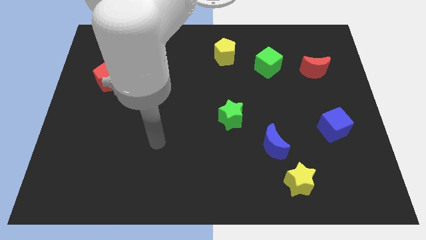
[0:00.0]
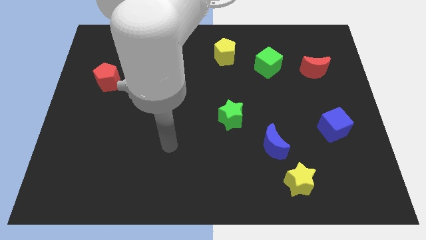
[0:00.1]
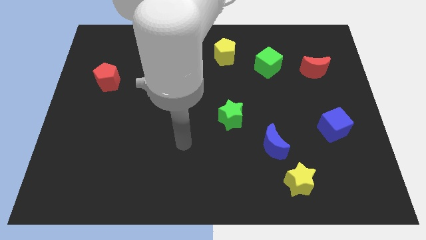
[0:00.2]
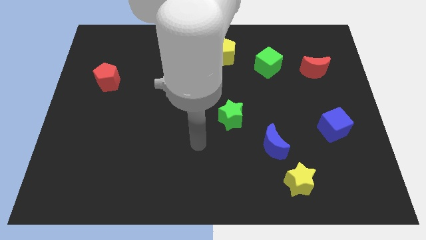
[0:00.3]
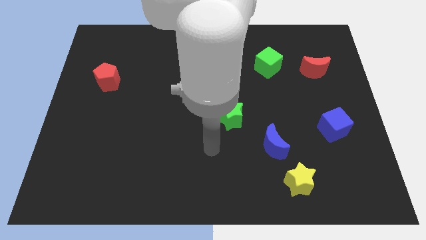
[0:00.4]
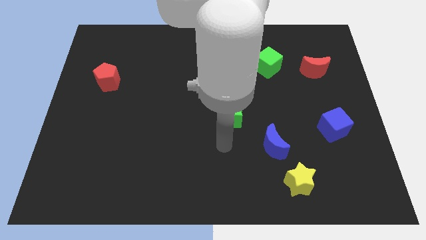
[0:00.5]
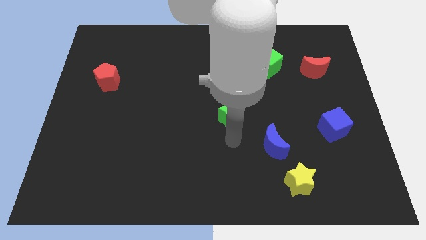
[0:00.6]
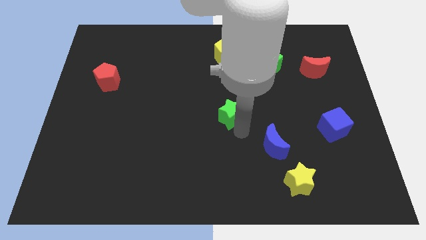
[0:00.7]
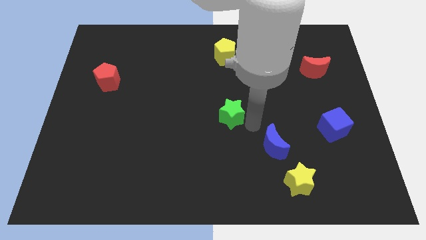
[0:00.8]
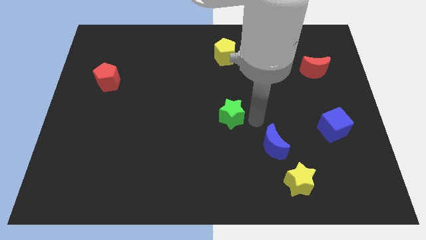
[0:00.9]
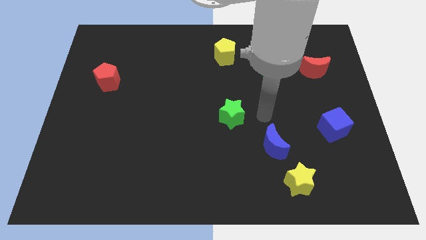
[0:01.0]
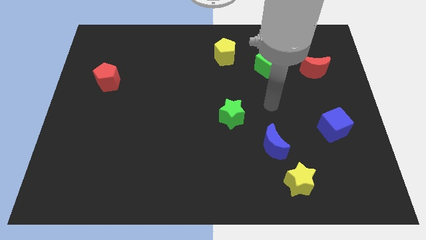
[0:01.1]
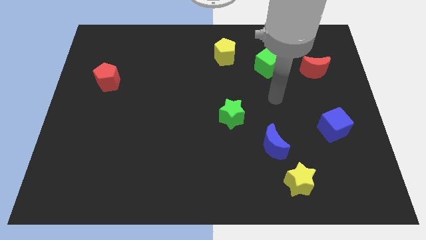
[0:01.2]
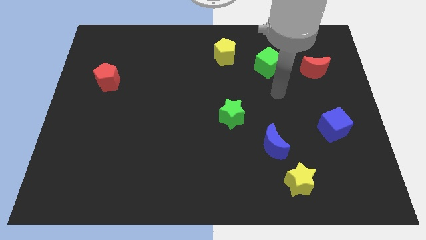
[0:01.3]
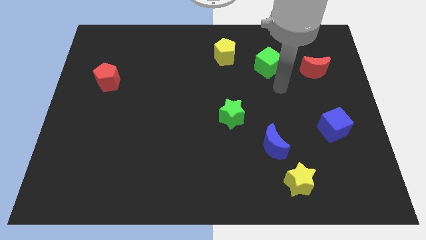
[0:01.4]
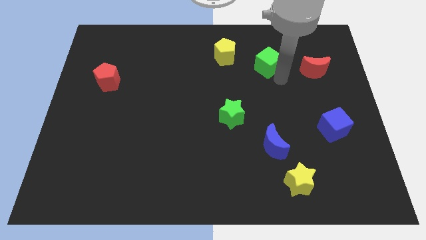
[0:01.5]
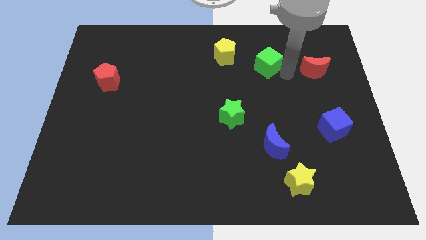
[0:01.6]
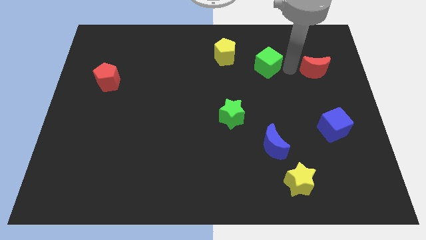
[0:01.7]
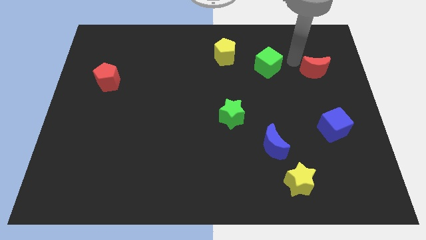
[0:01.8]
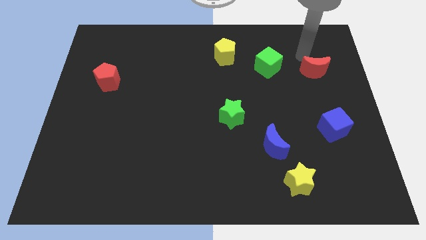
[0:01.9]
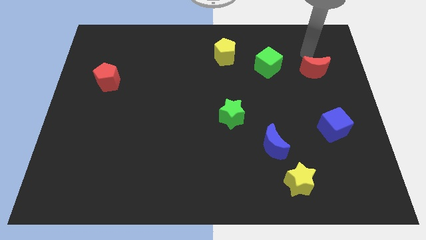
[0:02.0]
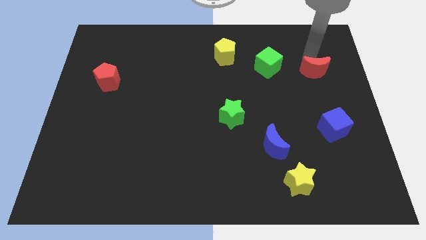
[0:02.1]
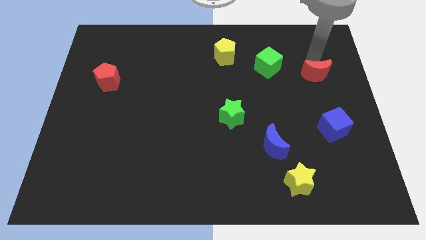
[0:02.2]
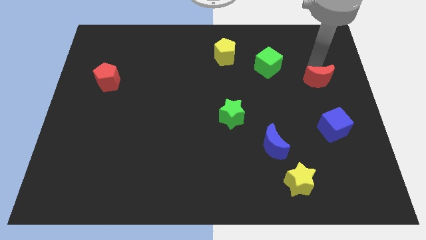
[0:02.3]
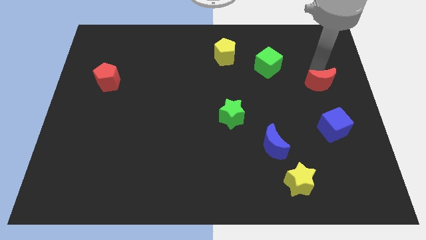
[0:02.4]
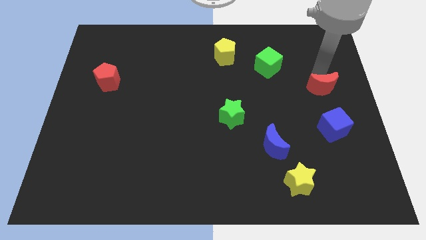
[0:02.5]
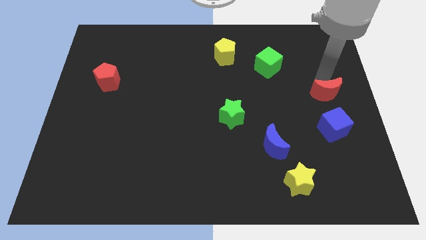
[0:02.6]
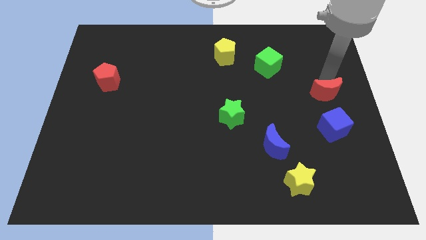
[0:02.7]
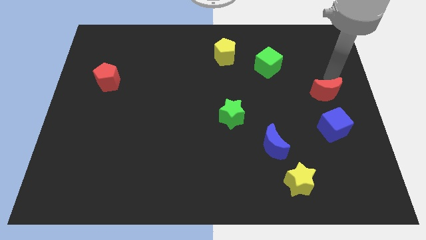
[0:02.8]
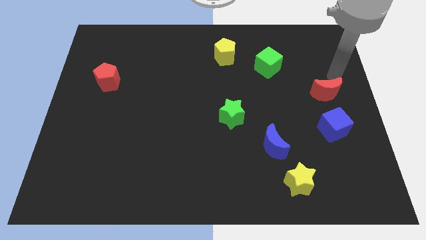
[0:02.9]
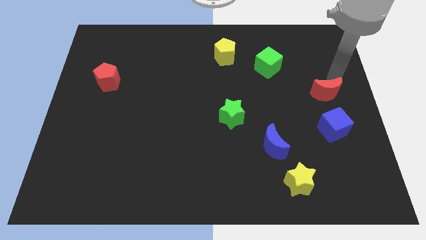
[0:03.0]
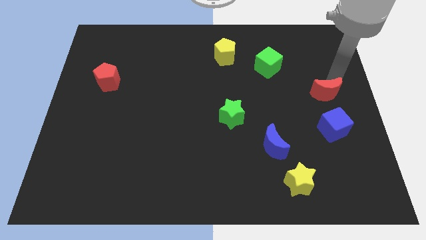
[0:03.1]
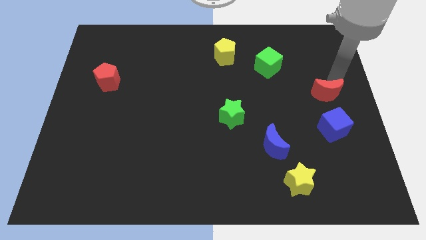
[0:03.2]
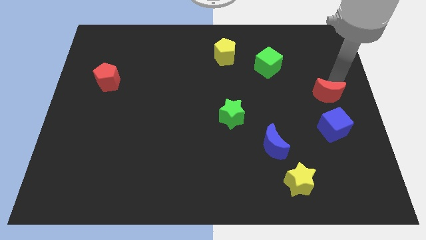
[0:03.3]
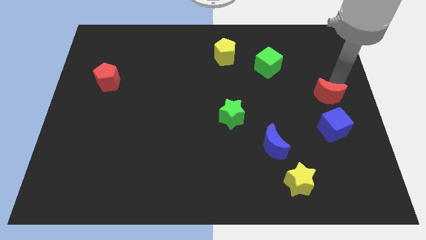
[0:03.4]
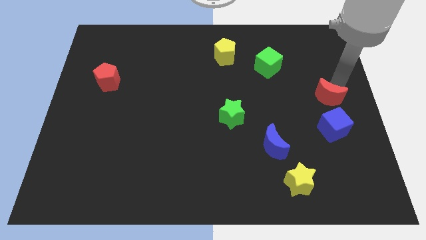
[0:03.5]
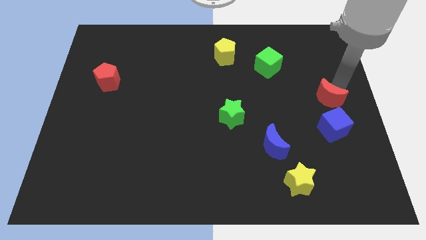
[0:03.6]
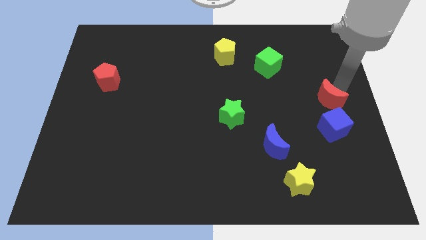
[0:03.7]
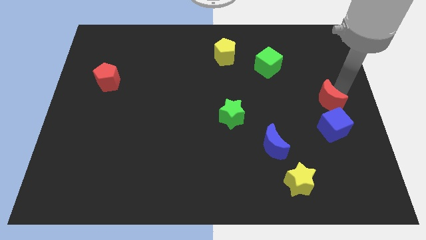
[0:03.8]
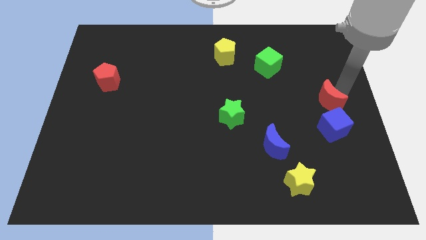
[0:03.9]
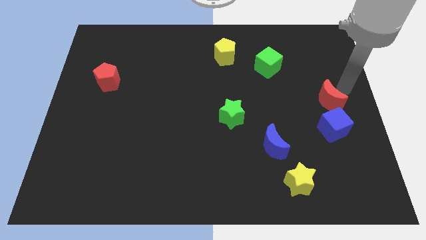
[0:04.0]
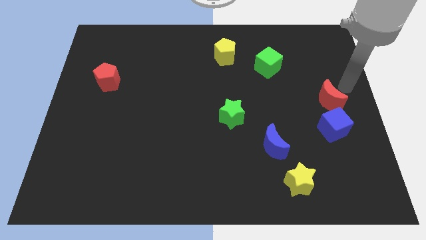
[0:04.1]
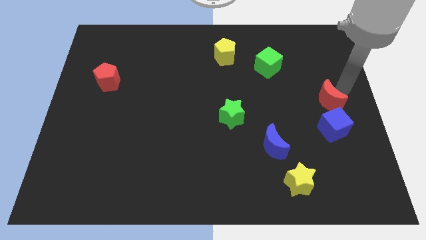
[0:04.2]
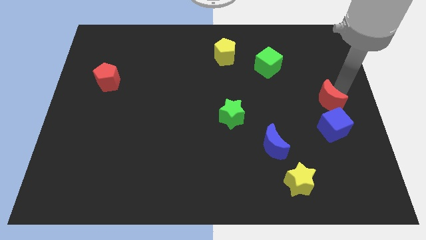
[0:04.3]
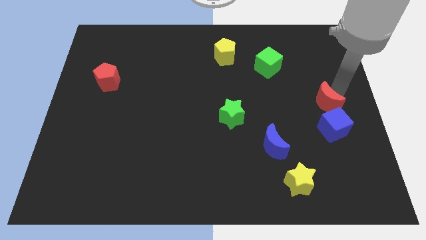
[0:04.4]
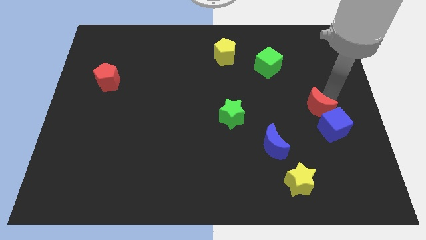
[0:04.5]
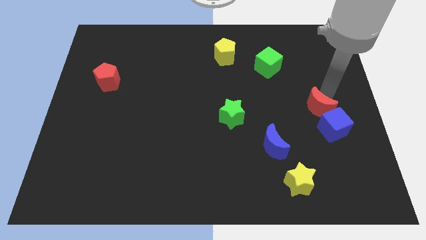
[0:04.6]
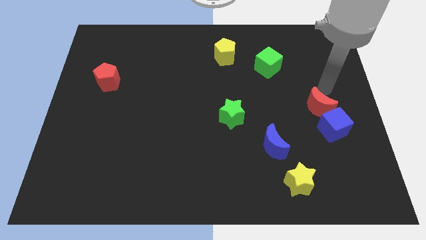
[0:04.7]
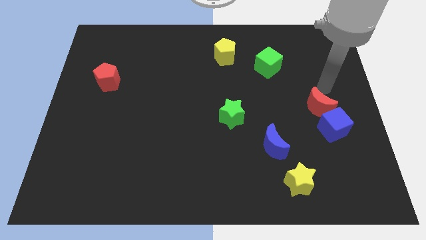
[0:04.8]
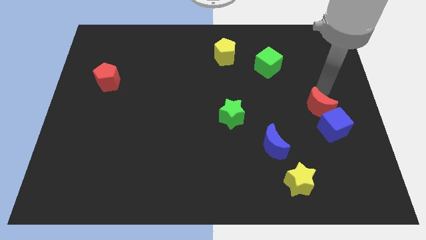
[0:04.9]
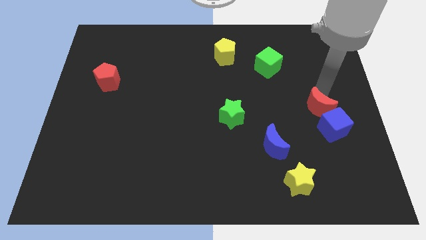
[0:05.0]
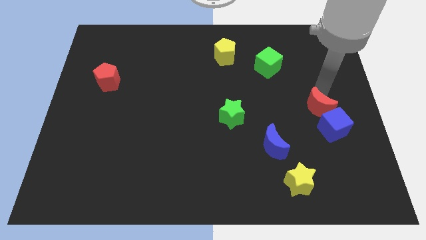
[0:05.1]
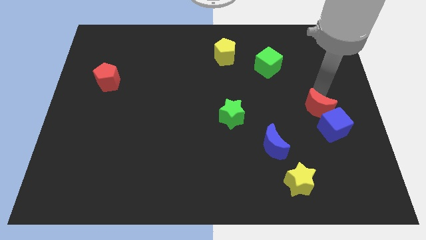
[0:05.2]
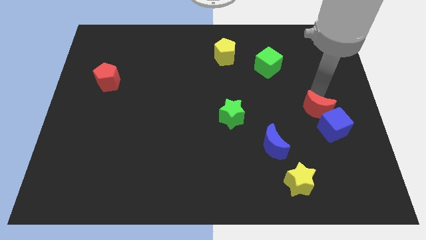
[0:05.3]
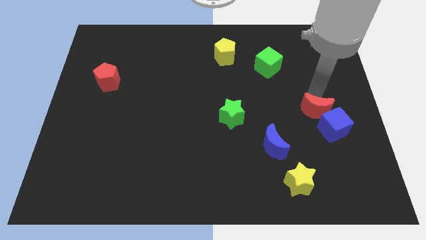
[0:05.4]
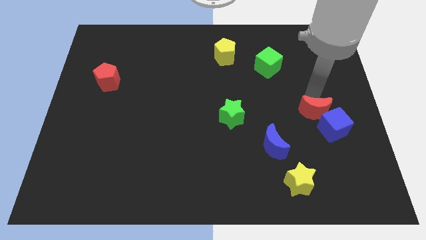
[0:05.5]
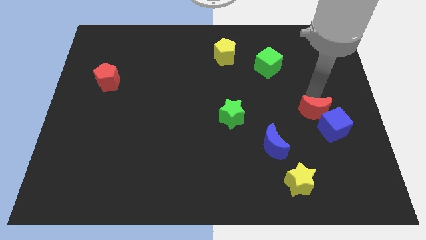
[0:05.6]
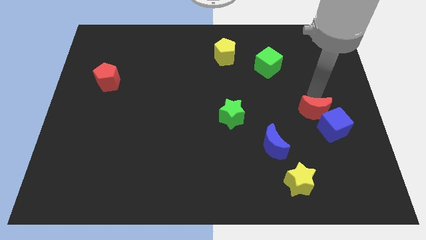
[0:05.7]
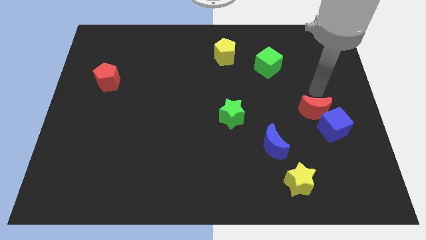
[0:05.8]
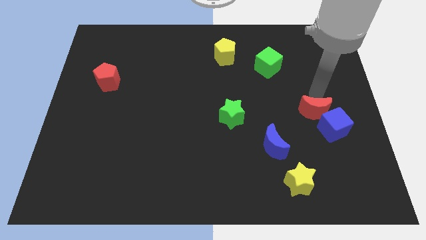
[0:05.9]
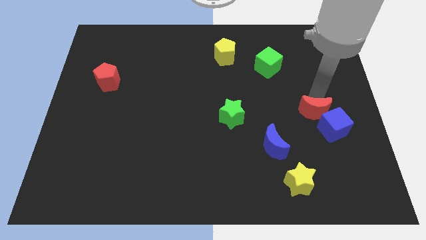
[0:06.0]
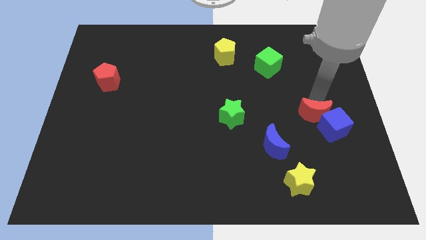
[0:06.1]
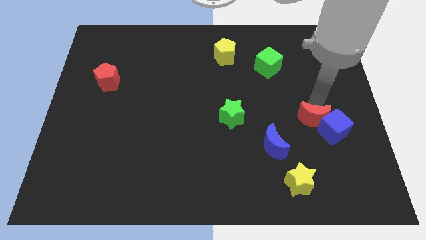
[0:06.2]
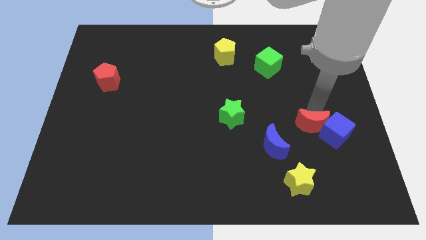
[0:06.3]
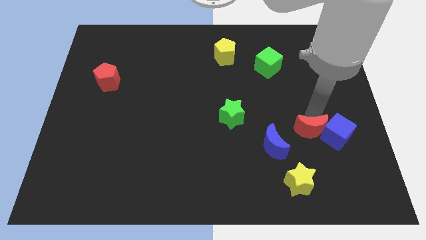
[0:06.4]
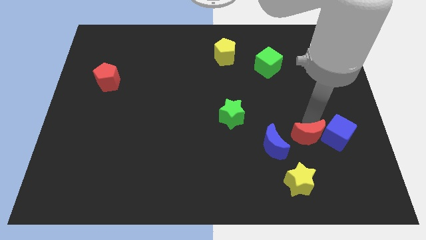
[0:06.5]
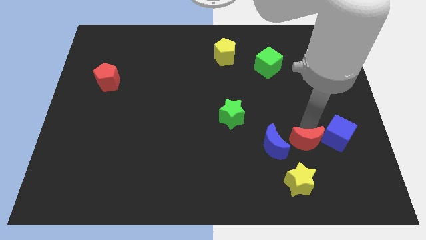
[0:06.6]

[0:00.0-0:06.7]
put the red moon diagonally up and to the right of the yellow star
